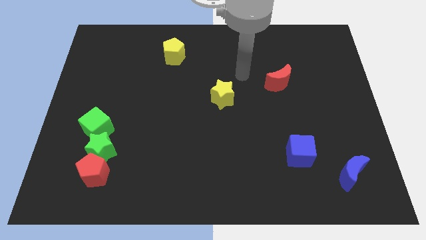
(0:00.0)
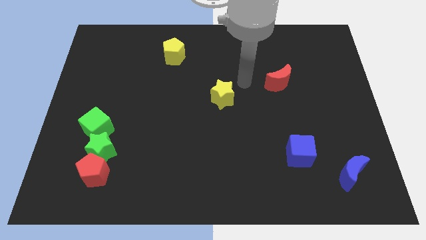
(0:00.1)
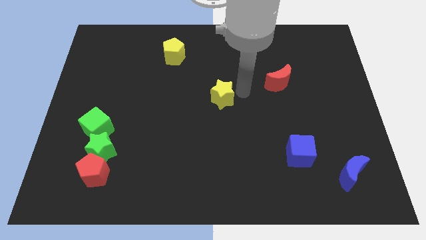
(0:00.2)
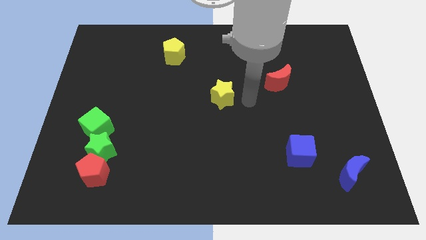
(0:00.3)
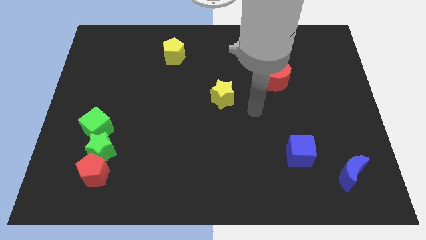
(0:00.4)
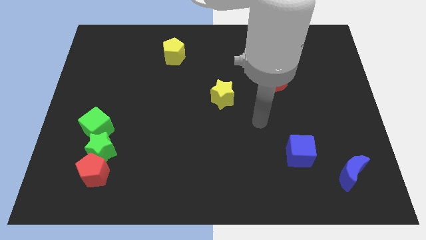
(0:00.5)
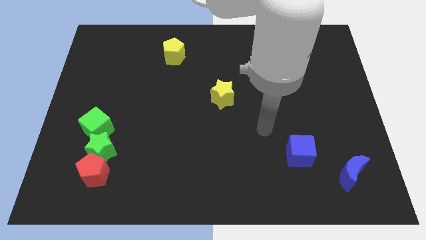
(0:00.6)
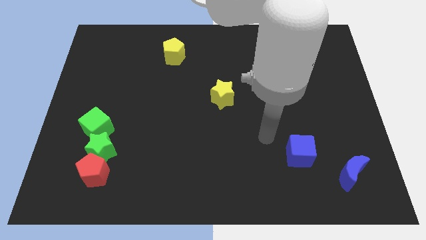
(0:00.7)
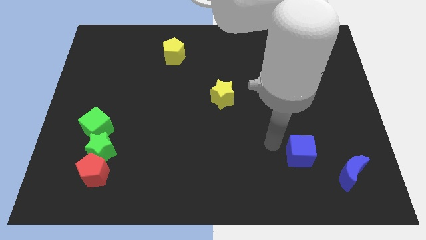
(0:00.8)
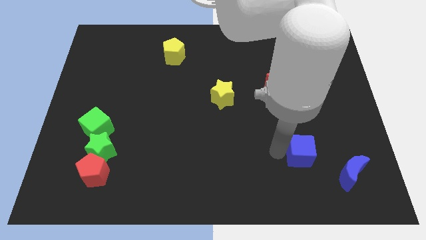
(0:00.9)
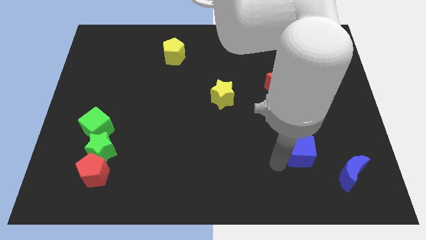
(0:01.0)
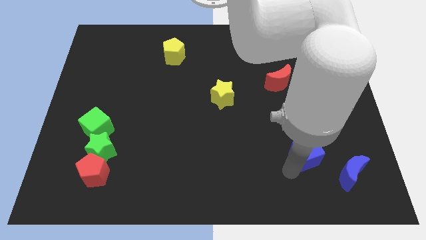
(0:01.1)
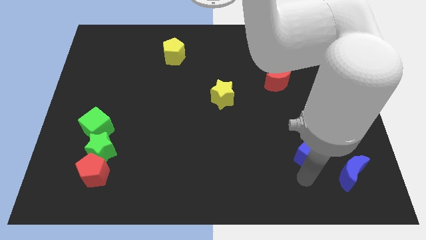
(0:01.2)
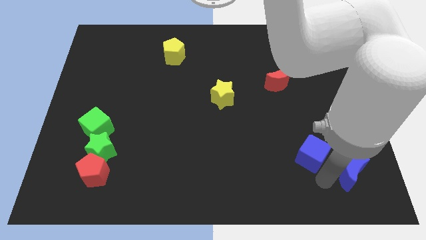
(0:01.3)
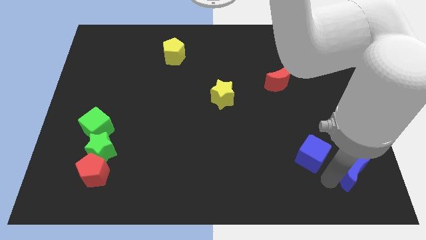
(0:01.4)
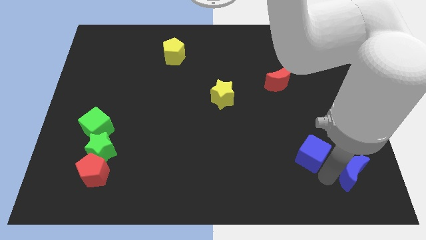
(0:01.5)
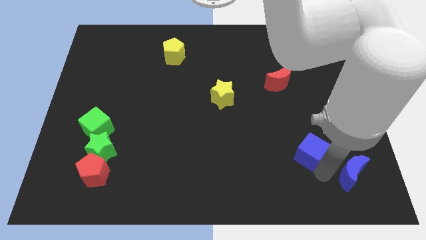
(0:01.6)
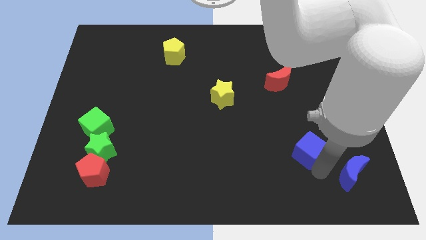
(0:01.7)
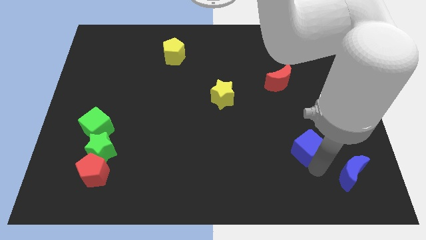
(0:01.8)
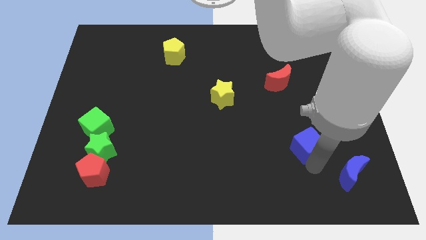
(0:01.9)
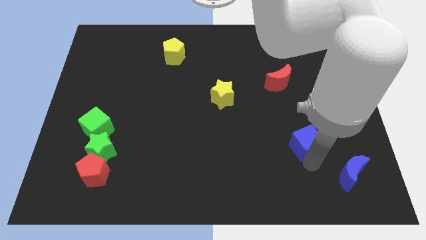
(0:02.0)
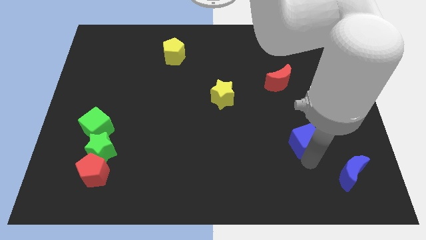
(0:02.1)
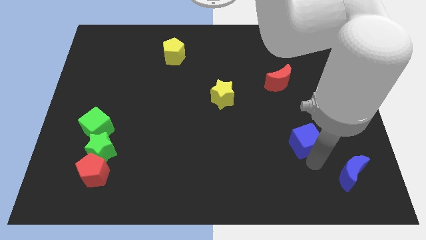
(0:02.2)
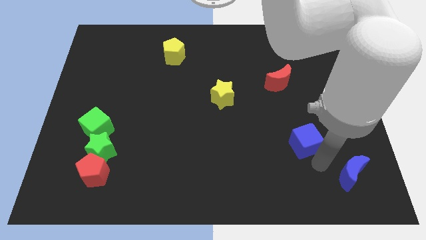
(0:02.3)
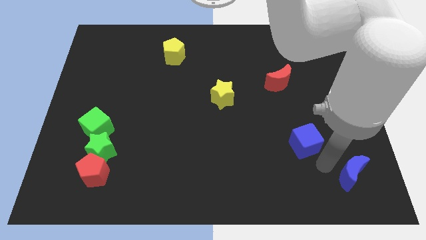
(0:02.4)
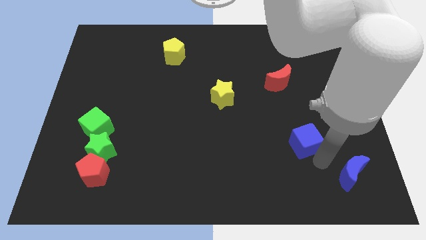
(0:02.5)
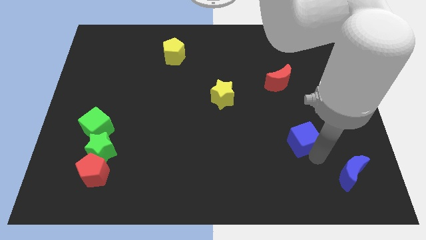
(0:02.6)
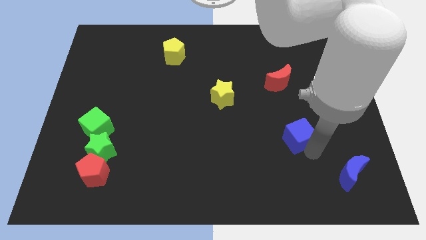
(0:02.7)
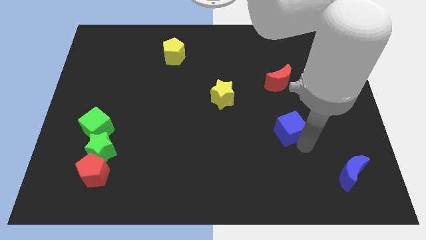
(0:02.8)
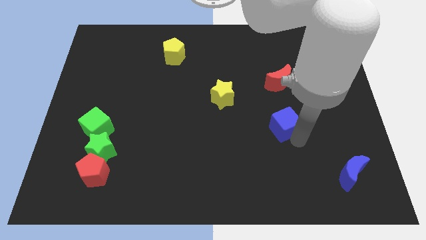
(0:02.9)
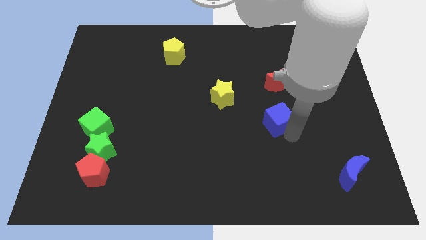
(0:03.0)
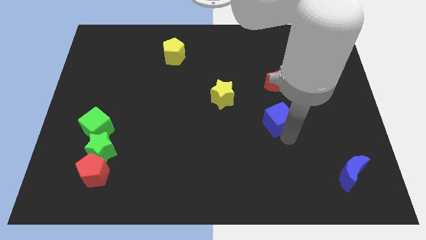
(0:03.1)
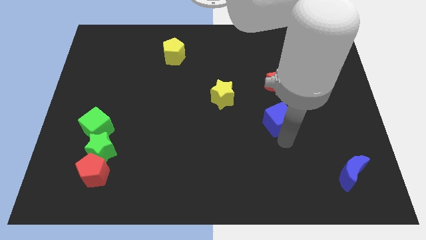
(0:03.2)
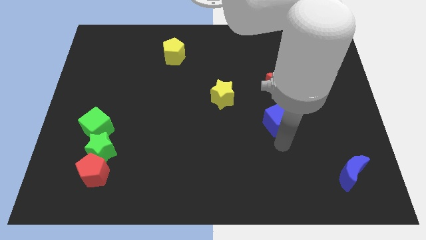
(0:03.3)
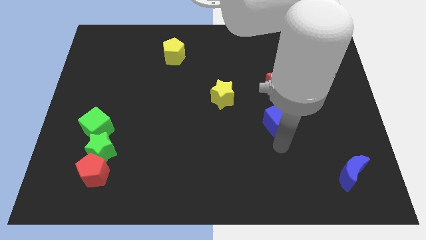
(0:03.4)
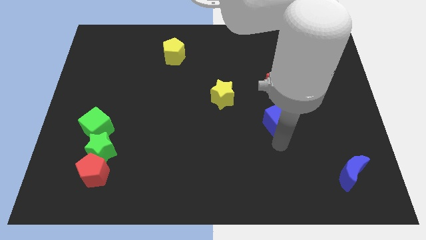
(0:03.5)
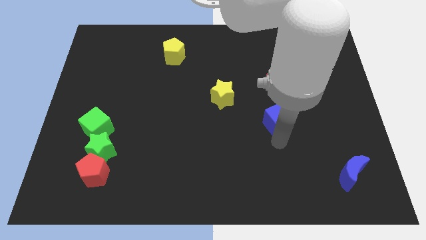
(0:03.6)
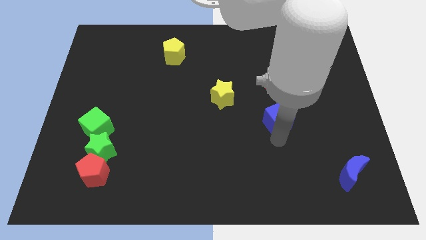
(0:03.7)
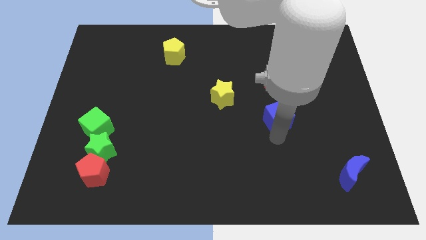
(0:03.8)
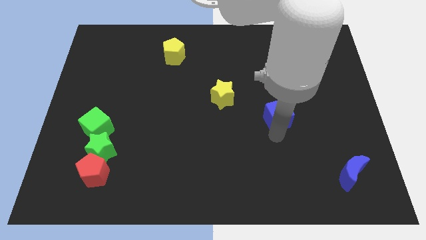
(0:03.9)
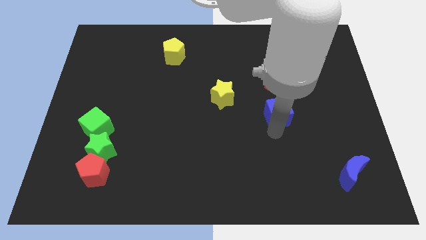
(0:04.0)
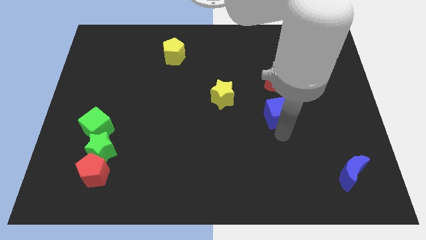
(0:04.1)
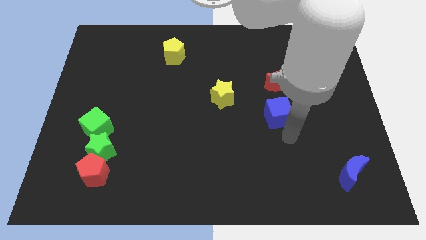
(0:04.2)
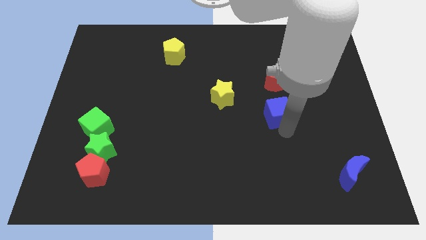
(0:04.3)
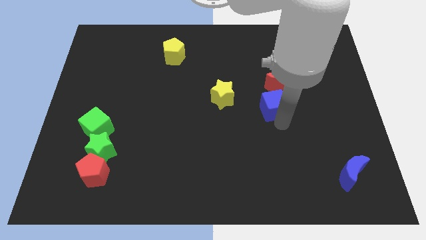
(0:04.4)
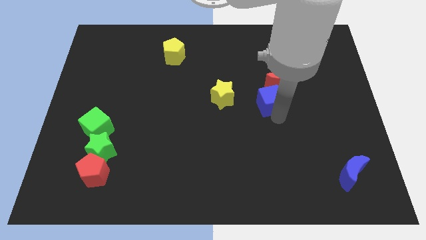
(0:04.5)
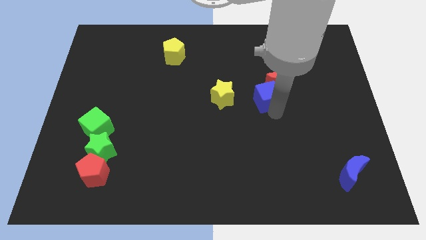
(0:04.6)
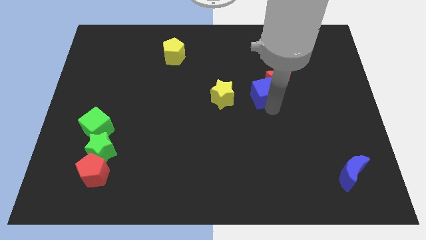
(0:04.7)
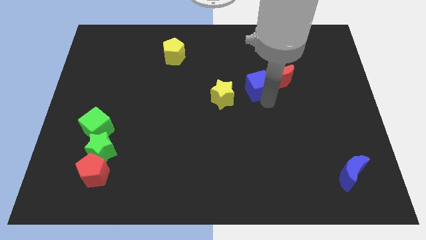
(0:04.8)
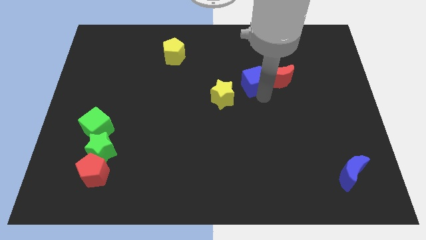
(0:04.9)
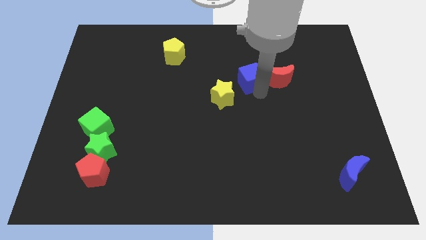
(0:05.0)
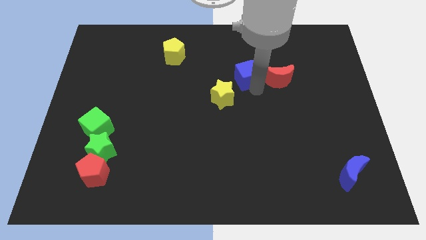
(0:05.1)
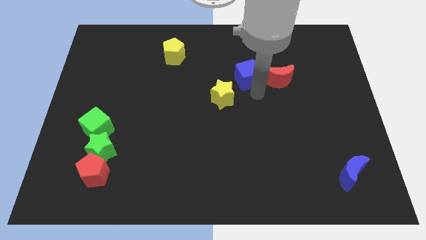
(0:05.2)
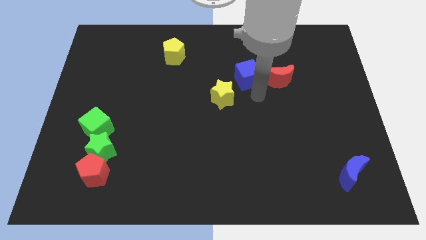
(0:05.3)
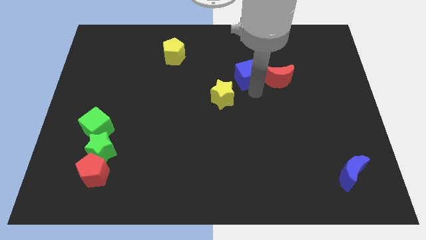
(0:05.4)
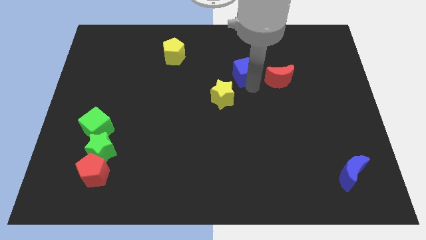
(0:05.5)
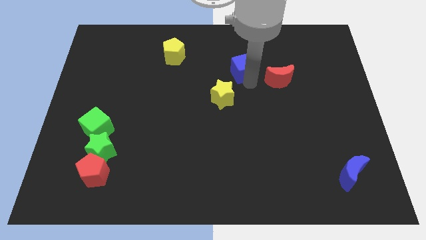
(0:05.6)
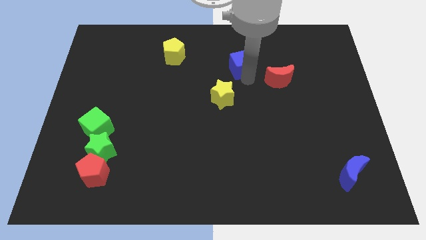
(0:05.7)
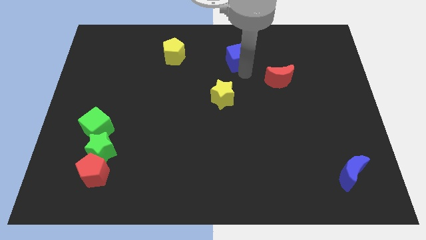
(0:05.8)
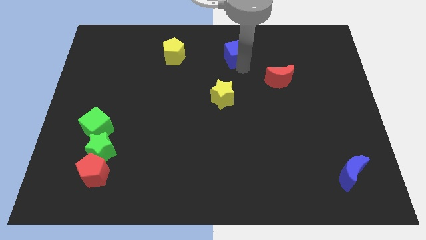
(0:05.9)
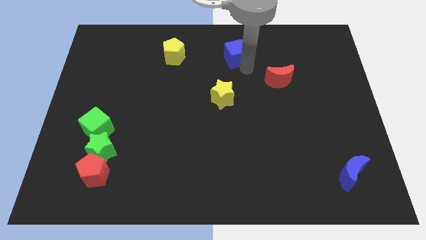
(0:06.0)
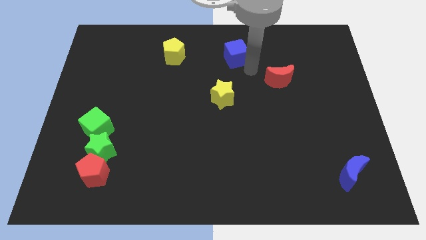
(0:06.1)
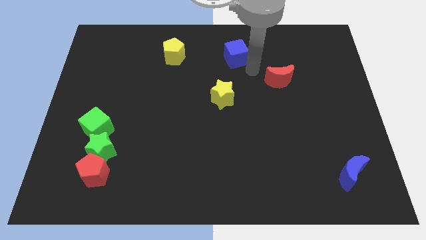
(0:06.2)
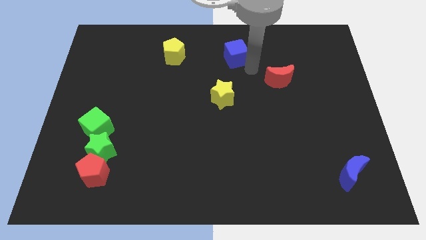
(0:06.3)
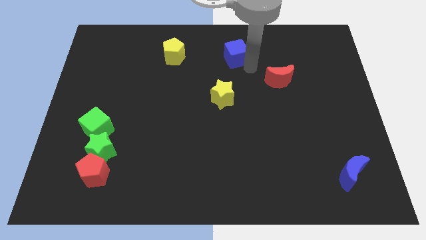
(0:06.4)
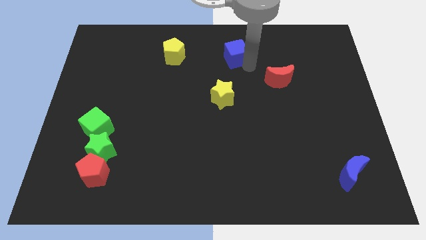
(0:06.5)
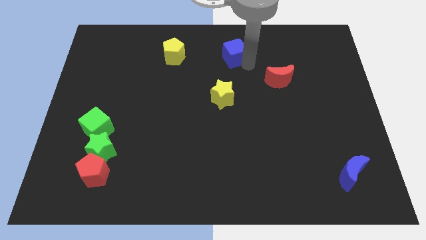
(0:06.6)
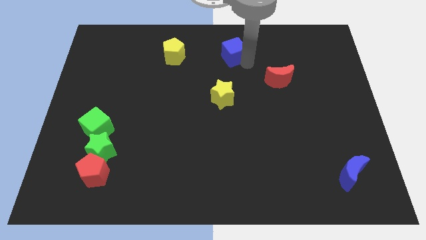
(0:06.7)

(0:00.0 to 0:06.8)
put the blue cube to the towards your base

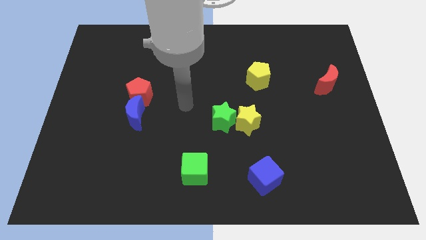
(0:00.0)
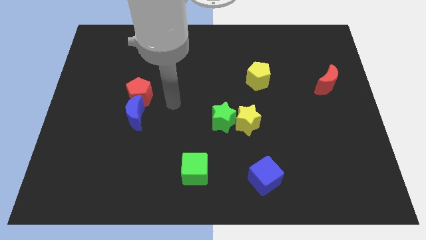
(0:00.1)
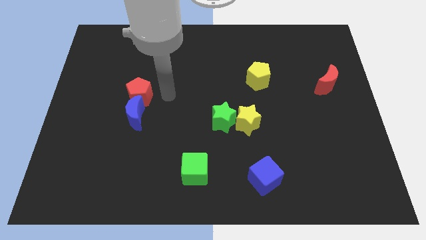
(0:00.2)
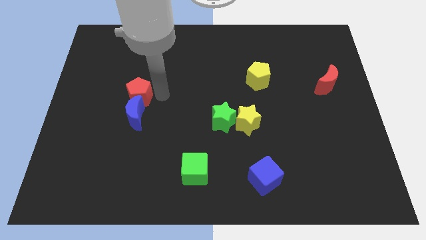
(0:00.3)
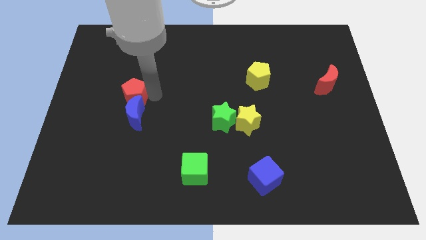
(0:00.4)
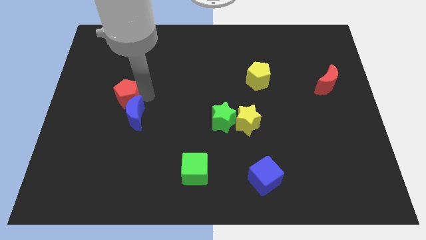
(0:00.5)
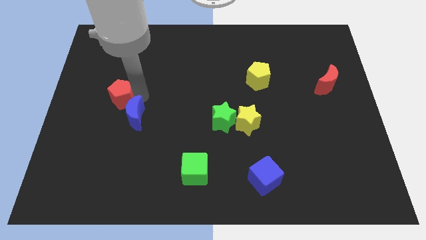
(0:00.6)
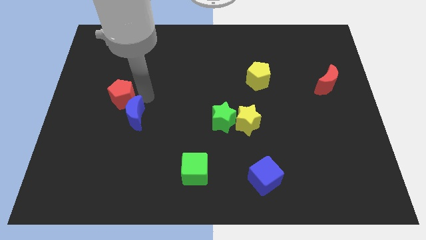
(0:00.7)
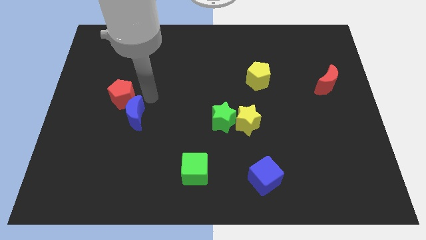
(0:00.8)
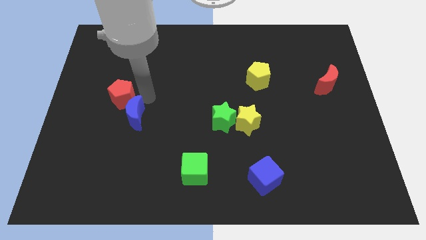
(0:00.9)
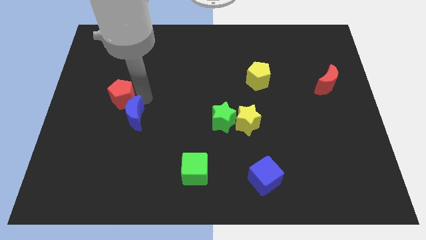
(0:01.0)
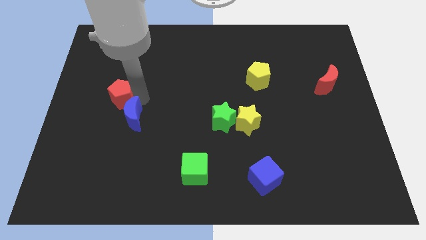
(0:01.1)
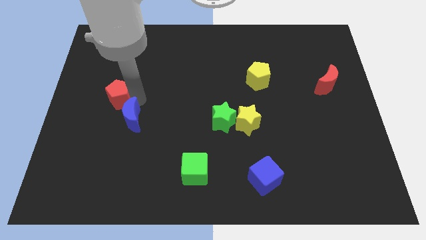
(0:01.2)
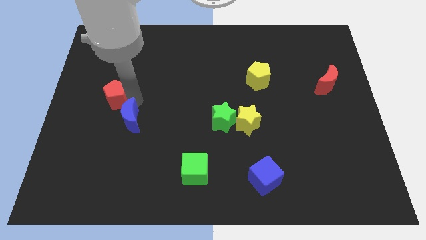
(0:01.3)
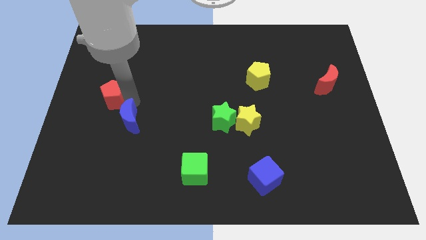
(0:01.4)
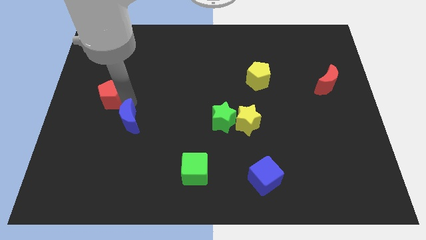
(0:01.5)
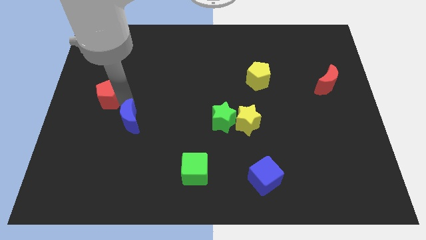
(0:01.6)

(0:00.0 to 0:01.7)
move the red pentagon to the left side of the board
